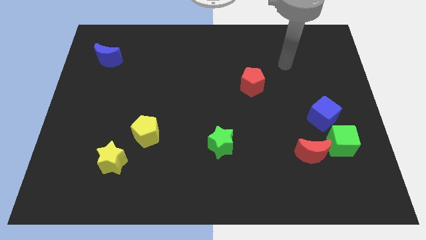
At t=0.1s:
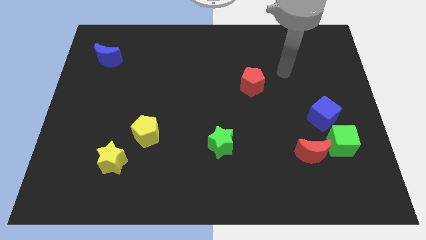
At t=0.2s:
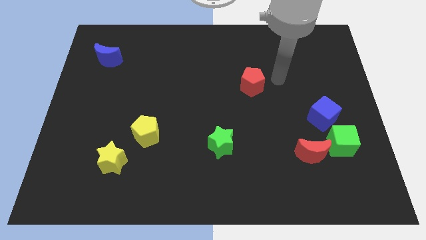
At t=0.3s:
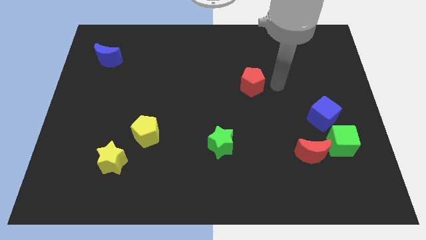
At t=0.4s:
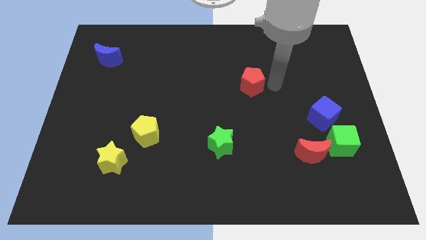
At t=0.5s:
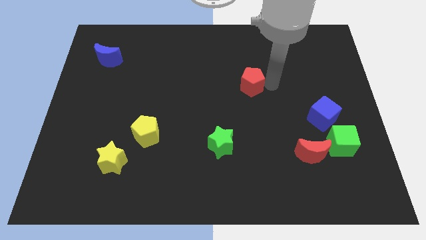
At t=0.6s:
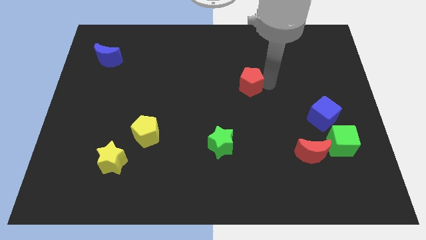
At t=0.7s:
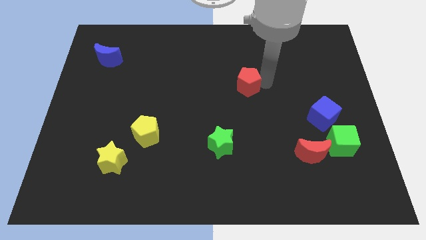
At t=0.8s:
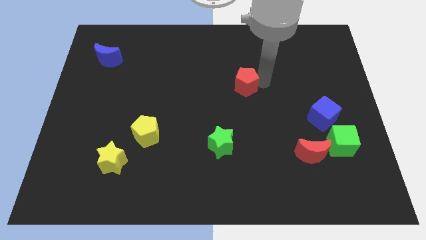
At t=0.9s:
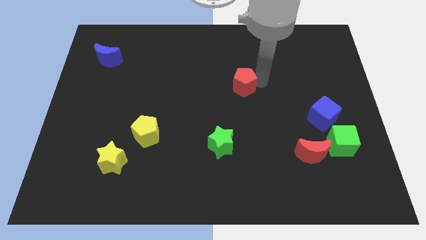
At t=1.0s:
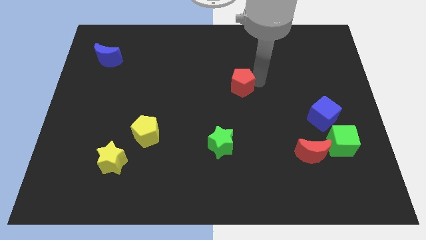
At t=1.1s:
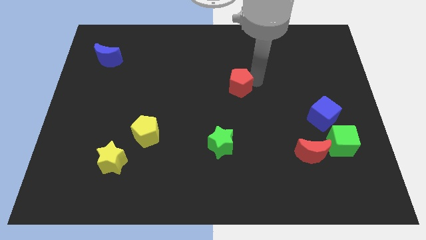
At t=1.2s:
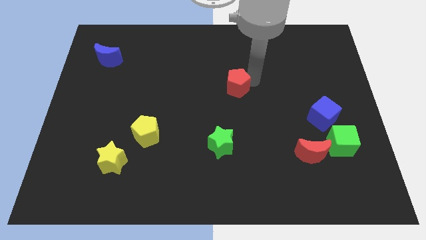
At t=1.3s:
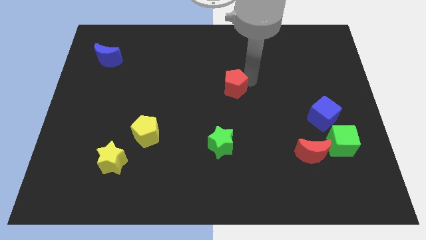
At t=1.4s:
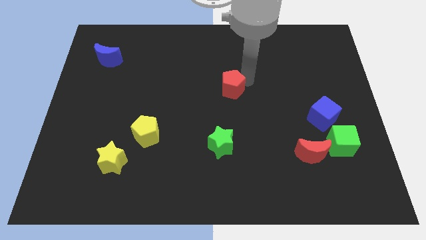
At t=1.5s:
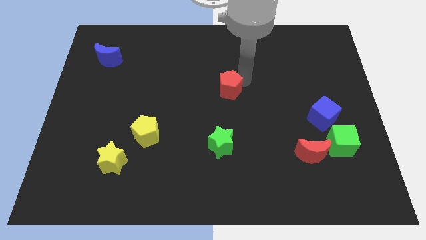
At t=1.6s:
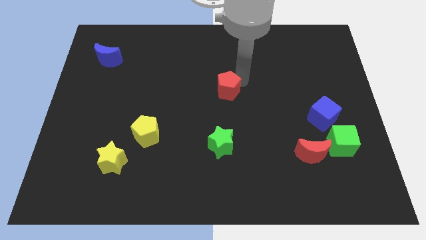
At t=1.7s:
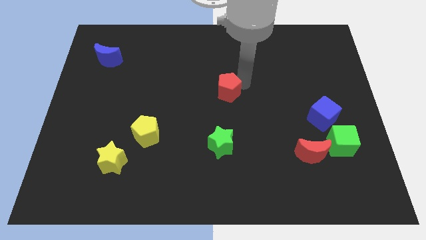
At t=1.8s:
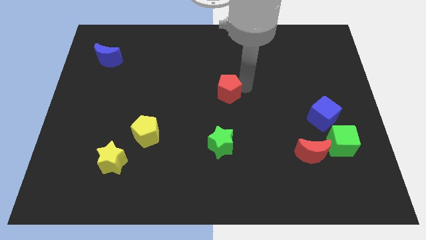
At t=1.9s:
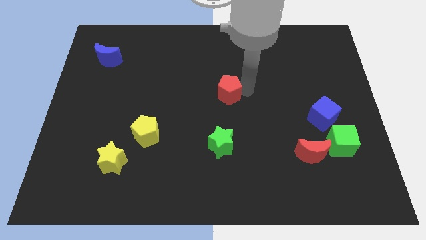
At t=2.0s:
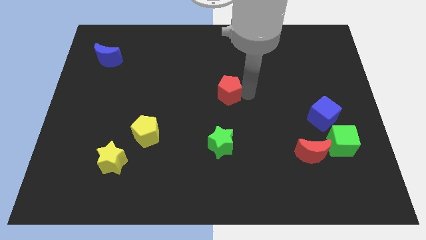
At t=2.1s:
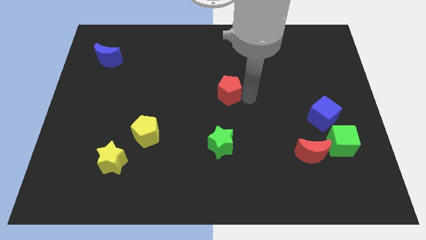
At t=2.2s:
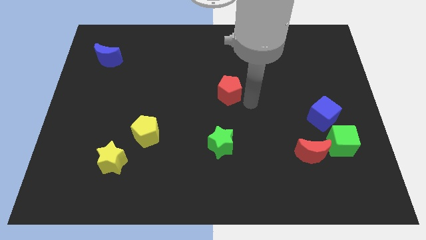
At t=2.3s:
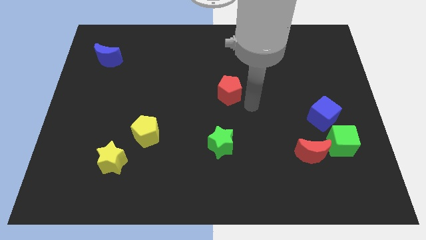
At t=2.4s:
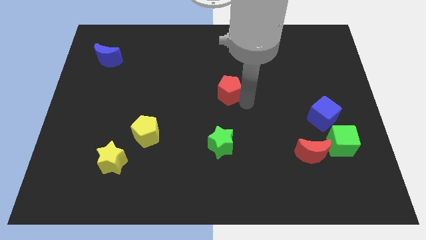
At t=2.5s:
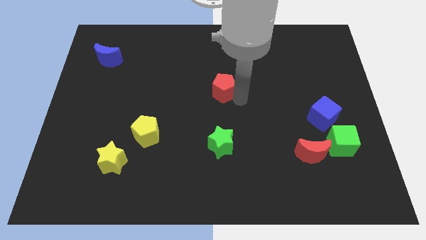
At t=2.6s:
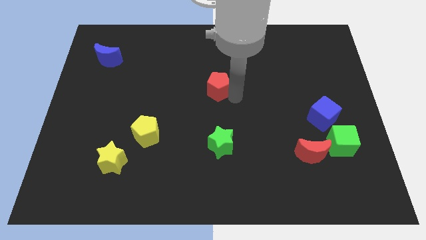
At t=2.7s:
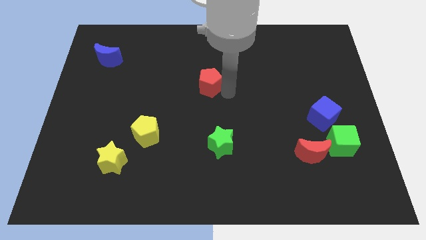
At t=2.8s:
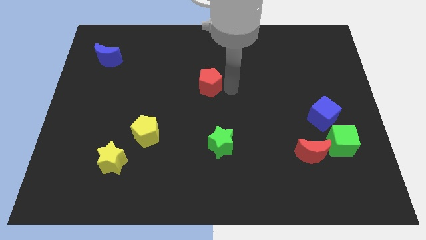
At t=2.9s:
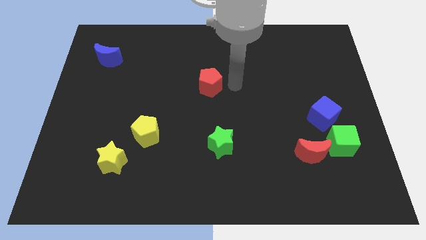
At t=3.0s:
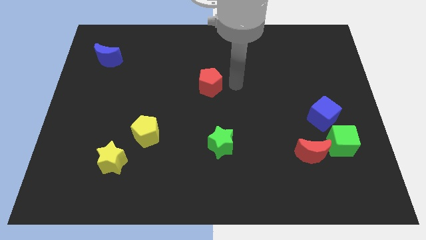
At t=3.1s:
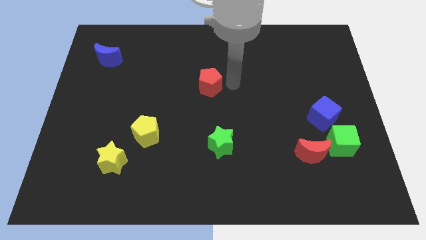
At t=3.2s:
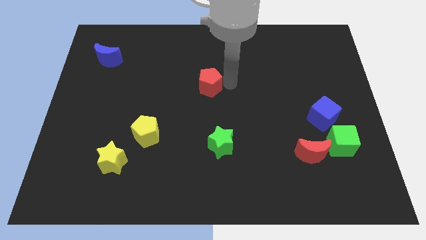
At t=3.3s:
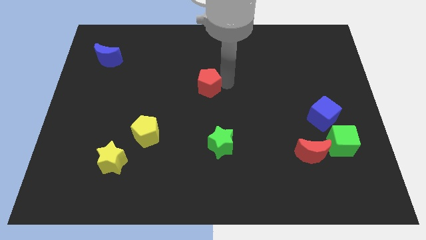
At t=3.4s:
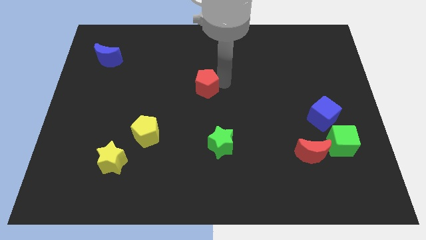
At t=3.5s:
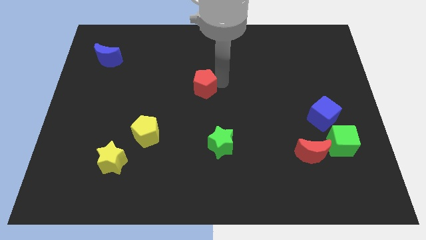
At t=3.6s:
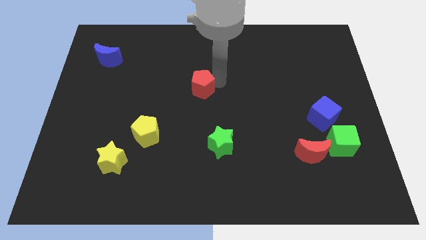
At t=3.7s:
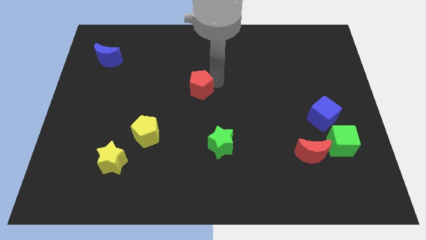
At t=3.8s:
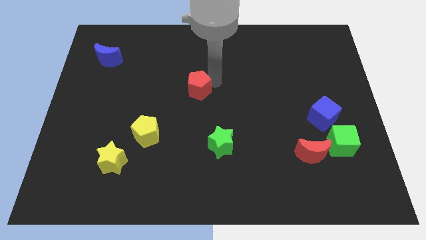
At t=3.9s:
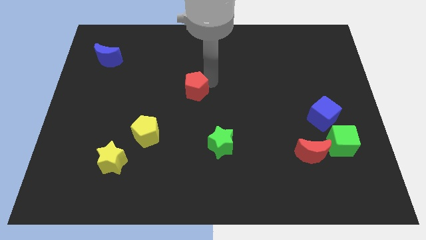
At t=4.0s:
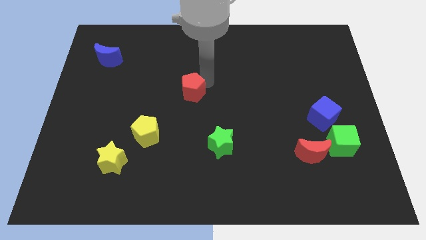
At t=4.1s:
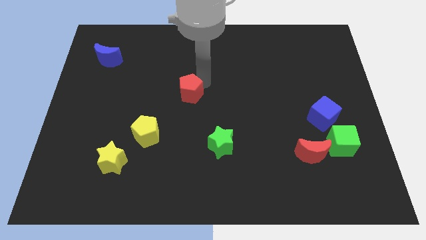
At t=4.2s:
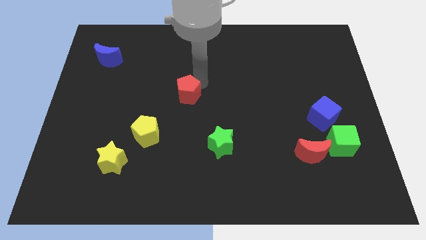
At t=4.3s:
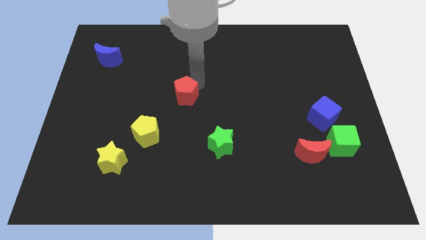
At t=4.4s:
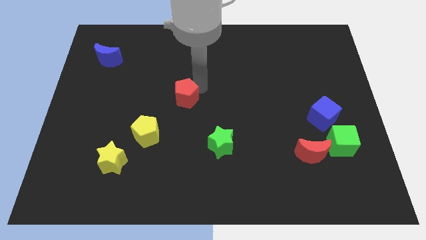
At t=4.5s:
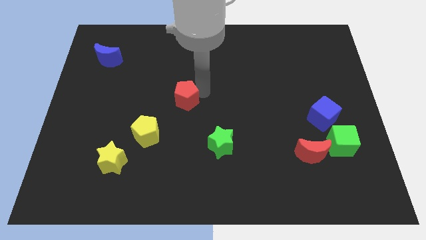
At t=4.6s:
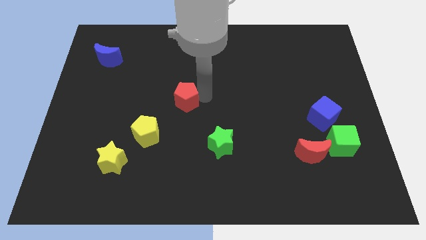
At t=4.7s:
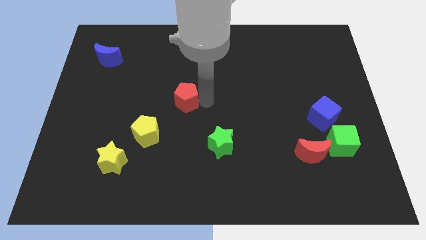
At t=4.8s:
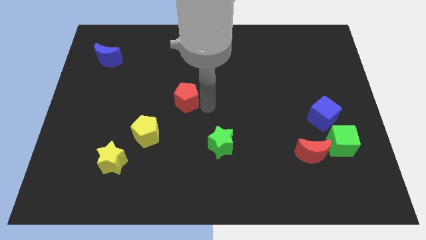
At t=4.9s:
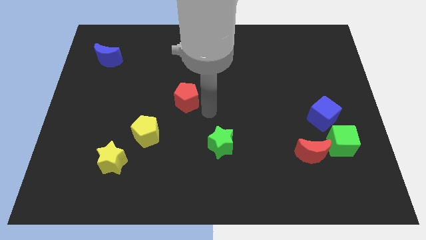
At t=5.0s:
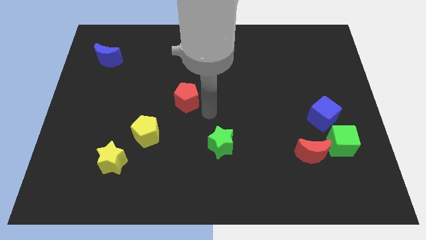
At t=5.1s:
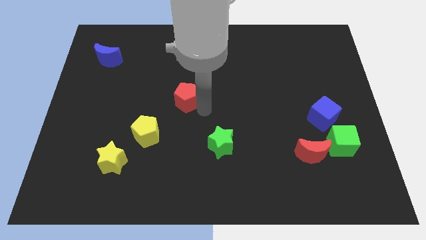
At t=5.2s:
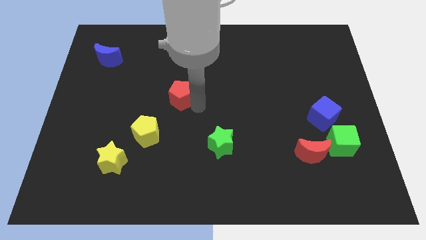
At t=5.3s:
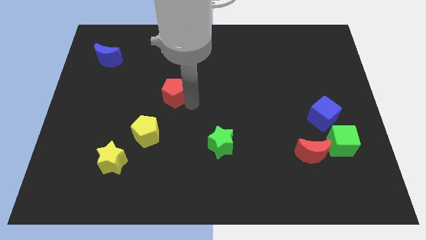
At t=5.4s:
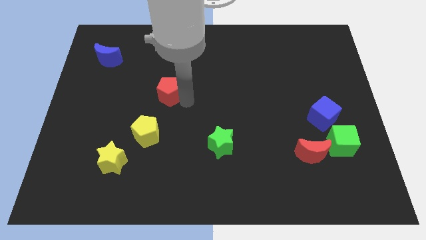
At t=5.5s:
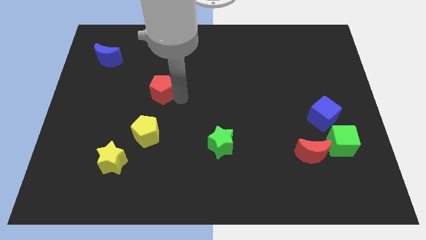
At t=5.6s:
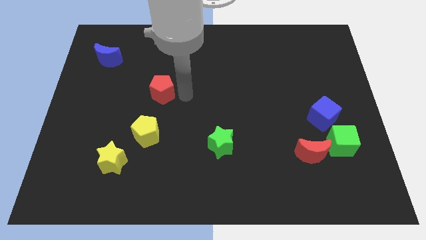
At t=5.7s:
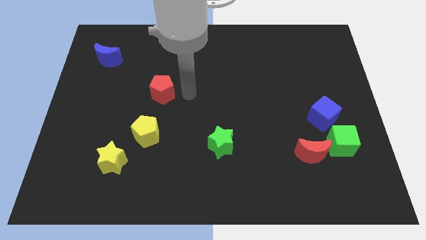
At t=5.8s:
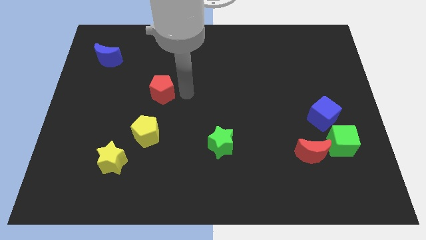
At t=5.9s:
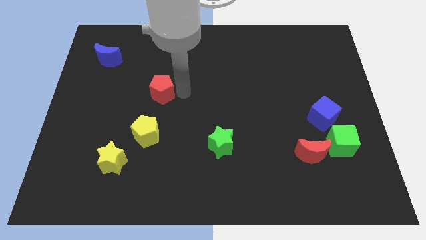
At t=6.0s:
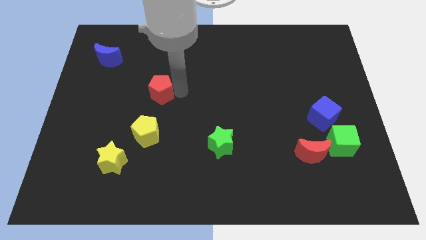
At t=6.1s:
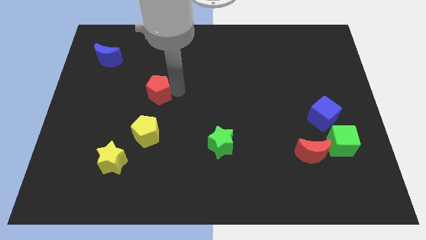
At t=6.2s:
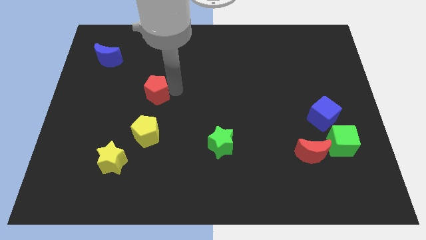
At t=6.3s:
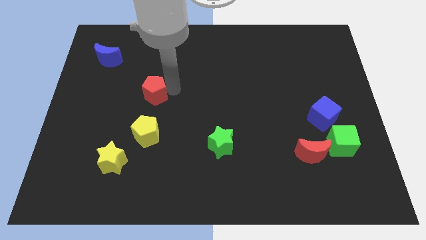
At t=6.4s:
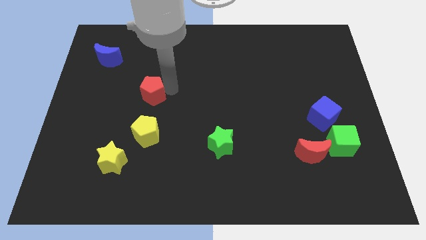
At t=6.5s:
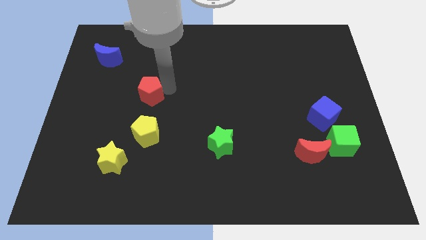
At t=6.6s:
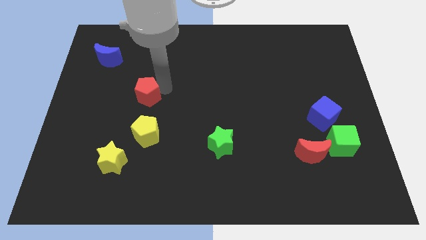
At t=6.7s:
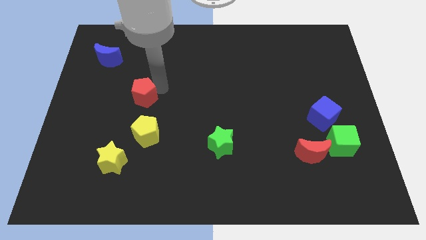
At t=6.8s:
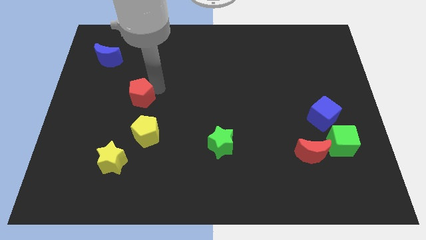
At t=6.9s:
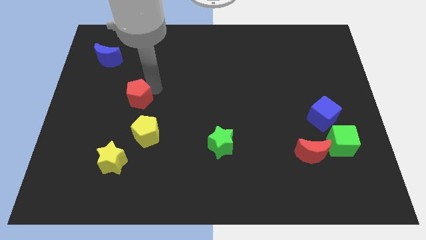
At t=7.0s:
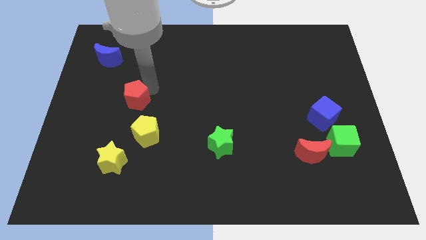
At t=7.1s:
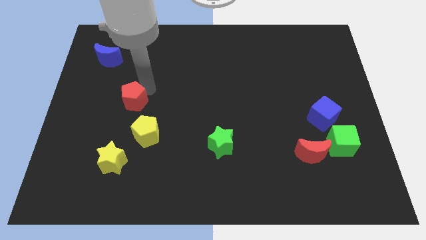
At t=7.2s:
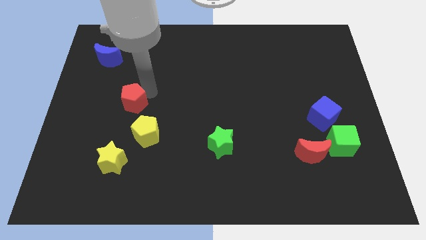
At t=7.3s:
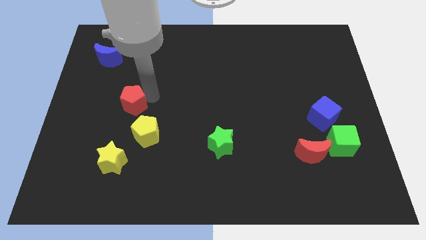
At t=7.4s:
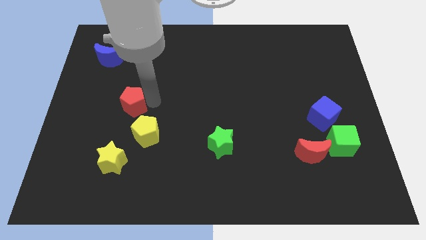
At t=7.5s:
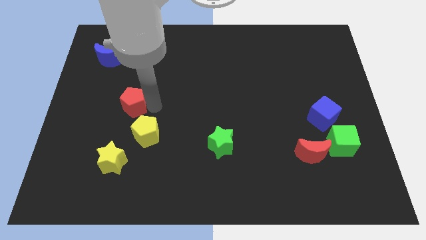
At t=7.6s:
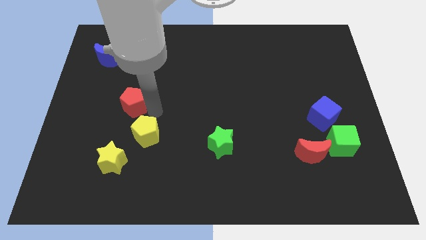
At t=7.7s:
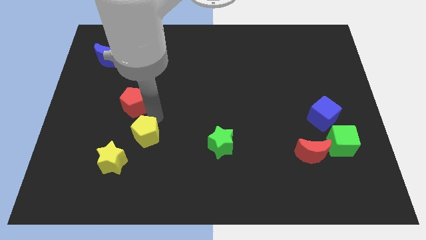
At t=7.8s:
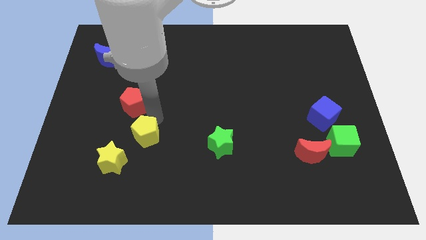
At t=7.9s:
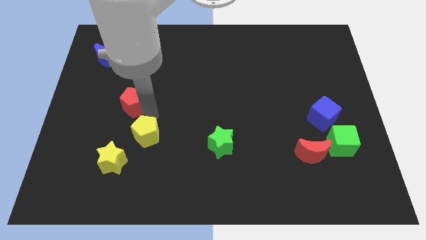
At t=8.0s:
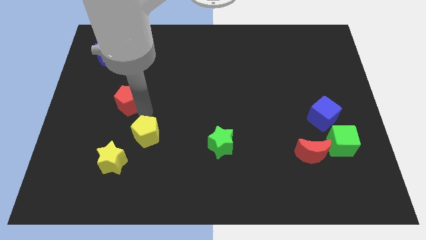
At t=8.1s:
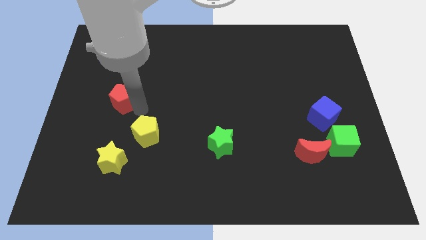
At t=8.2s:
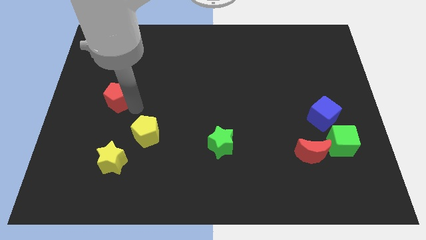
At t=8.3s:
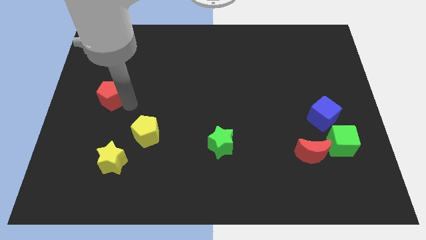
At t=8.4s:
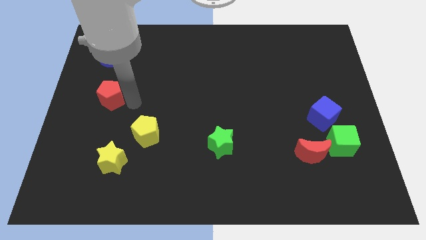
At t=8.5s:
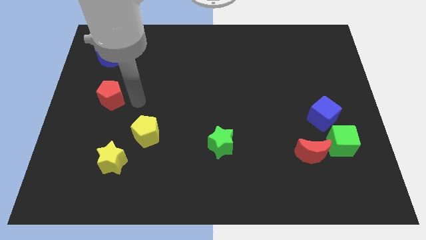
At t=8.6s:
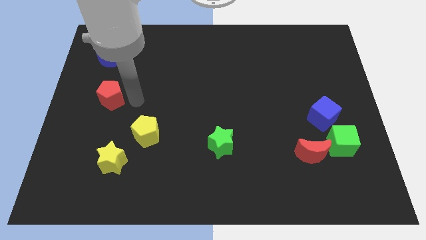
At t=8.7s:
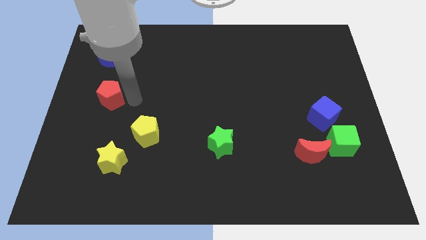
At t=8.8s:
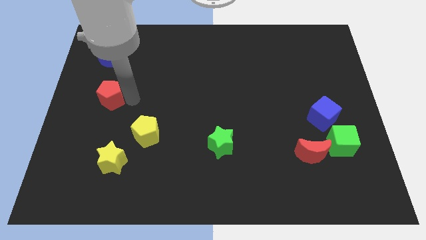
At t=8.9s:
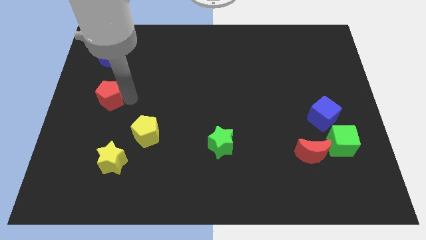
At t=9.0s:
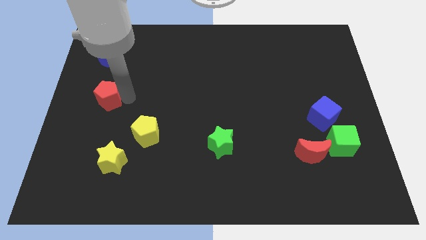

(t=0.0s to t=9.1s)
slide the red pentagon to the left side
